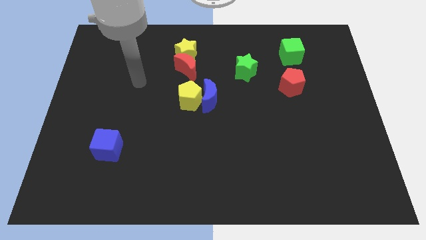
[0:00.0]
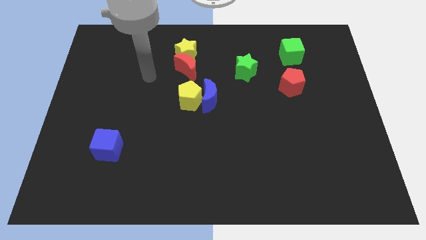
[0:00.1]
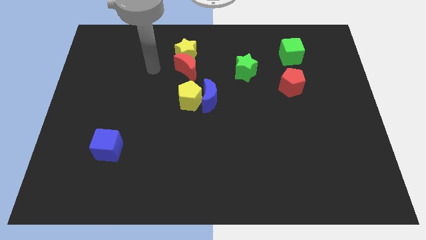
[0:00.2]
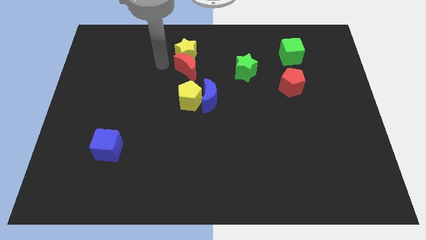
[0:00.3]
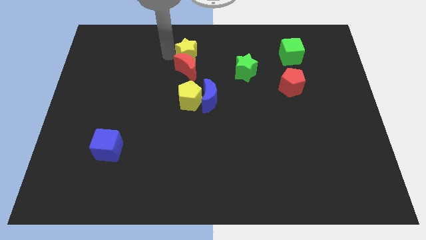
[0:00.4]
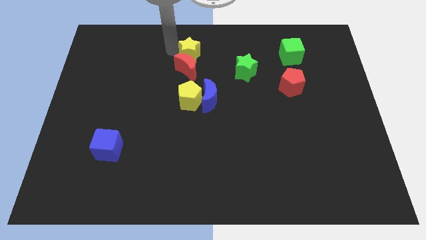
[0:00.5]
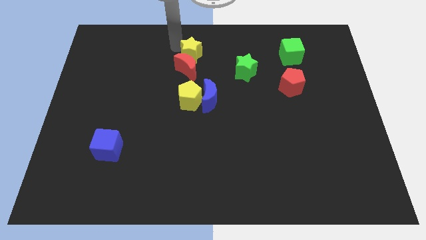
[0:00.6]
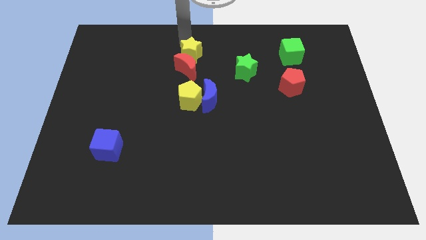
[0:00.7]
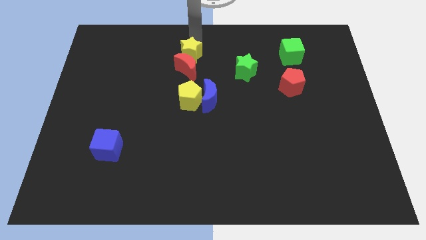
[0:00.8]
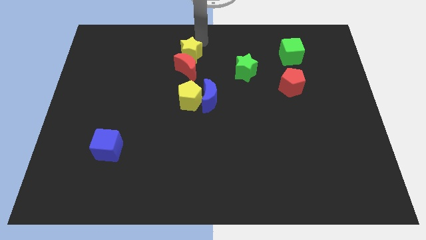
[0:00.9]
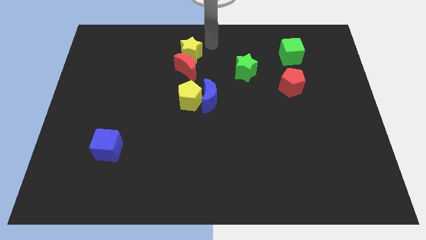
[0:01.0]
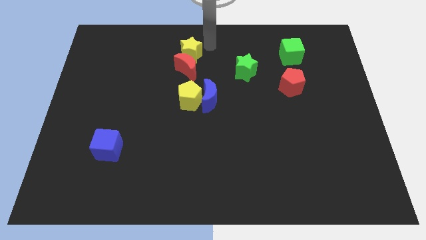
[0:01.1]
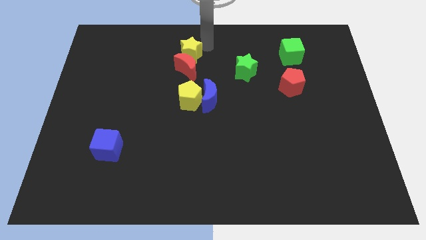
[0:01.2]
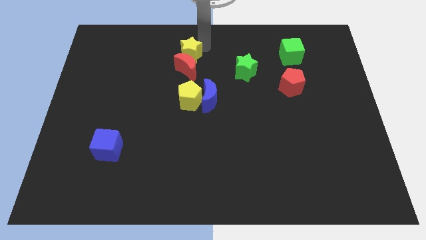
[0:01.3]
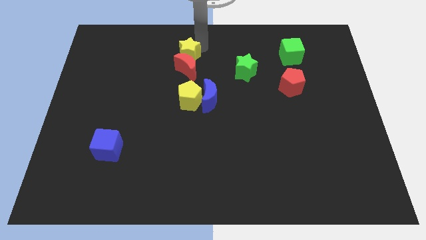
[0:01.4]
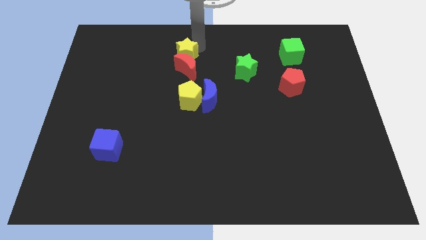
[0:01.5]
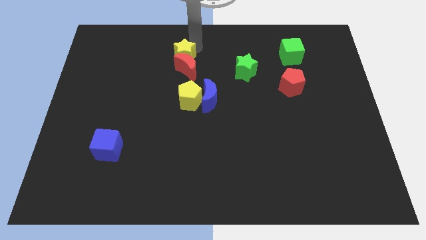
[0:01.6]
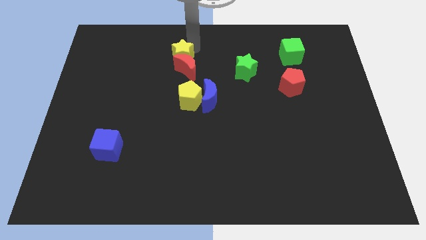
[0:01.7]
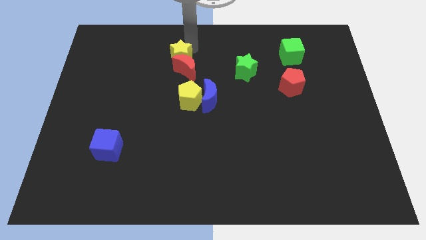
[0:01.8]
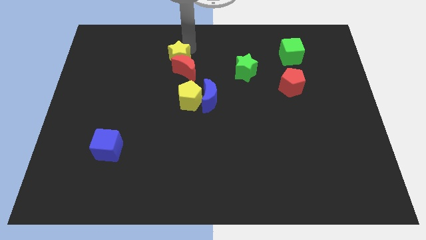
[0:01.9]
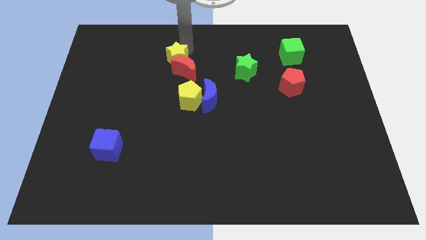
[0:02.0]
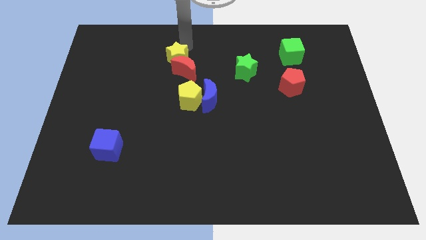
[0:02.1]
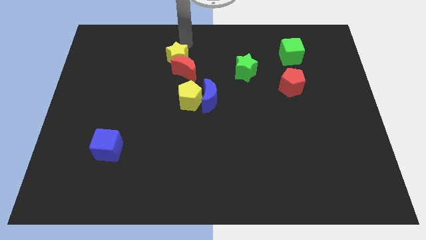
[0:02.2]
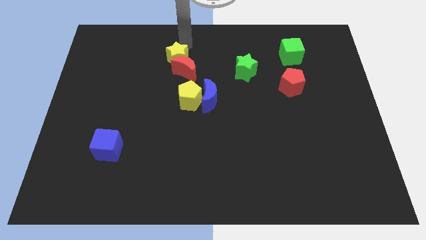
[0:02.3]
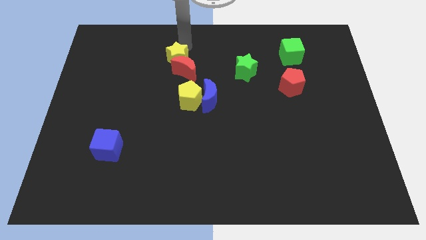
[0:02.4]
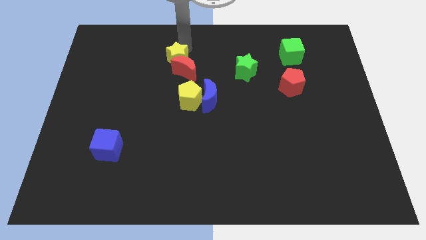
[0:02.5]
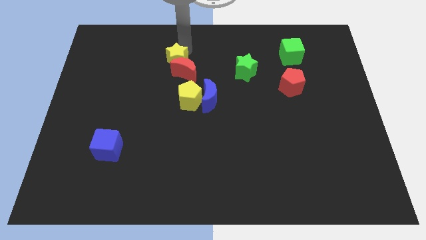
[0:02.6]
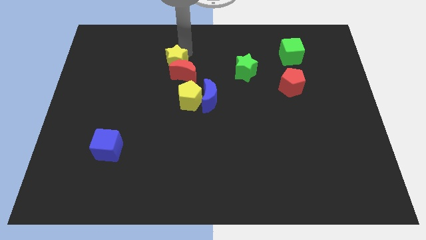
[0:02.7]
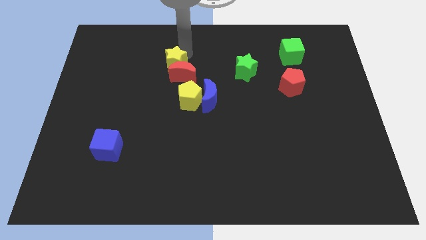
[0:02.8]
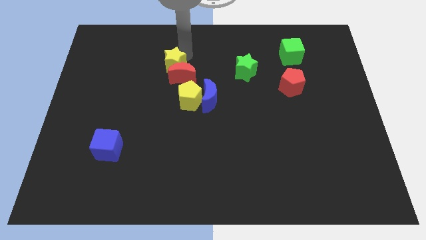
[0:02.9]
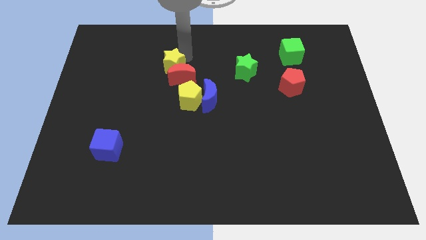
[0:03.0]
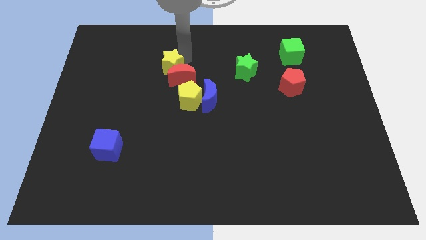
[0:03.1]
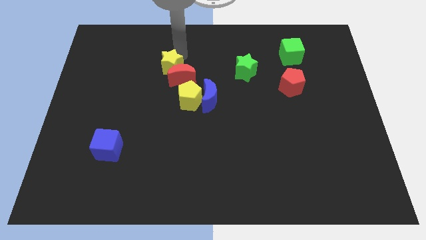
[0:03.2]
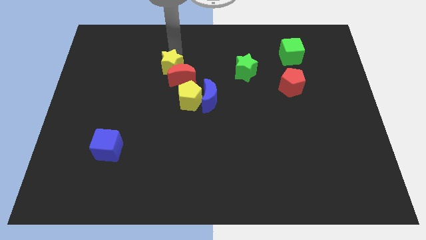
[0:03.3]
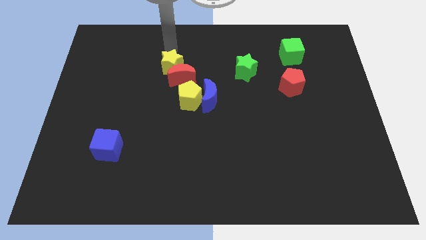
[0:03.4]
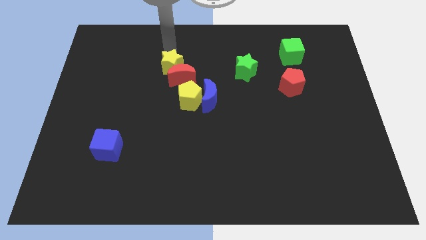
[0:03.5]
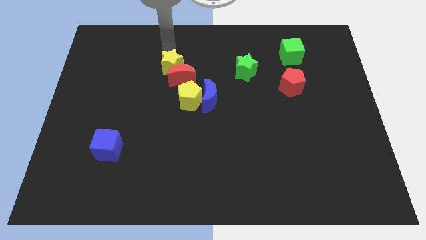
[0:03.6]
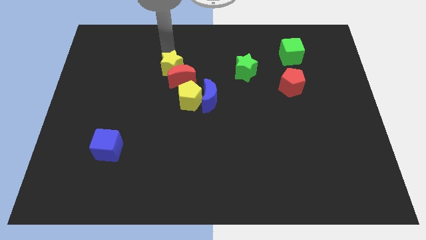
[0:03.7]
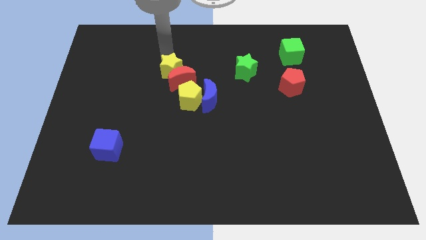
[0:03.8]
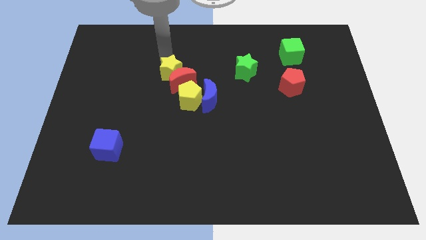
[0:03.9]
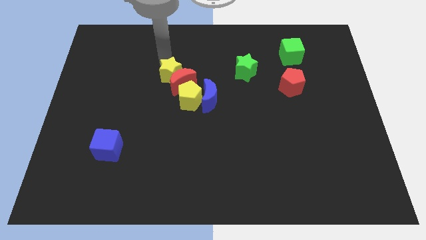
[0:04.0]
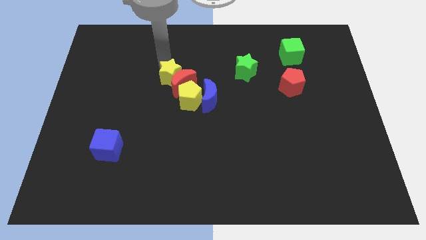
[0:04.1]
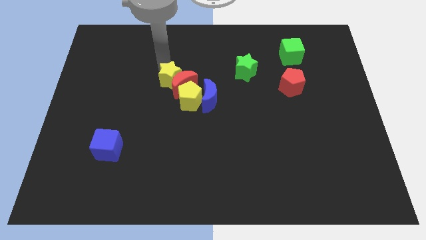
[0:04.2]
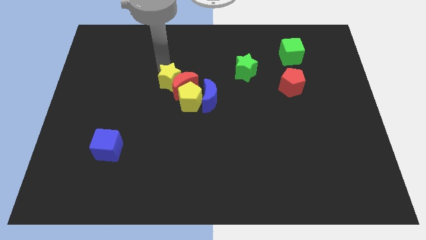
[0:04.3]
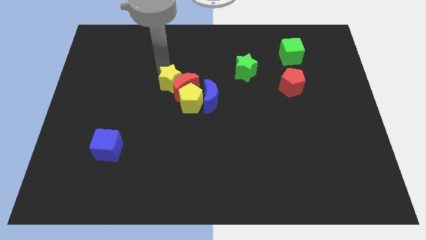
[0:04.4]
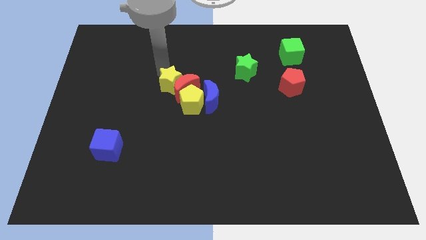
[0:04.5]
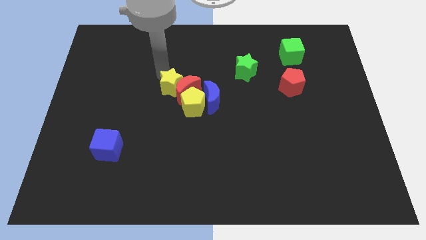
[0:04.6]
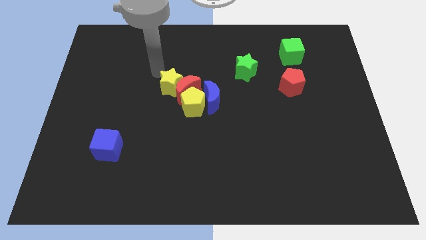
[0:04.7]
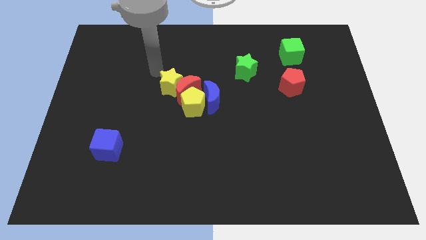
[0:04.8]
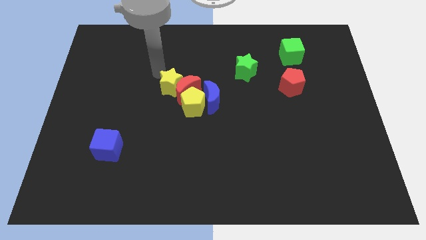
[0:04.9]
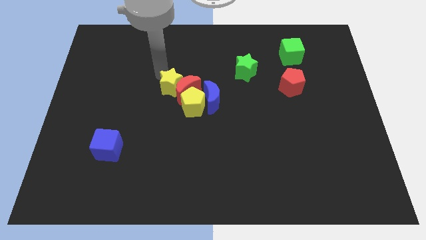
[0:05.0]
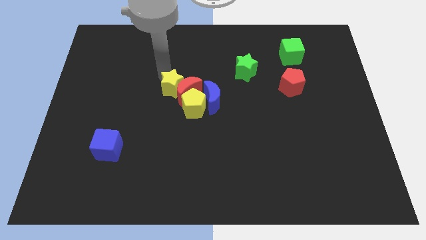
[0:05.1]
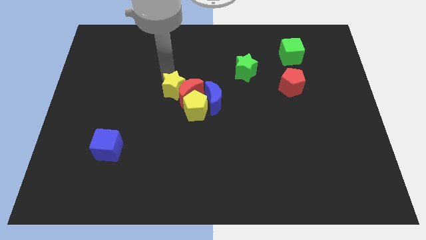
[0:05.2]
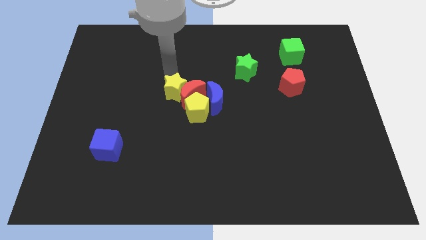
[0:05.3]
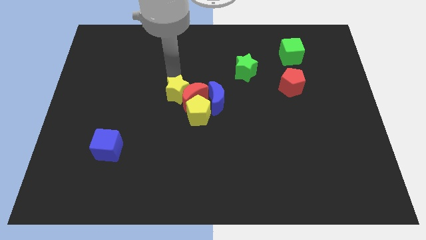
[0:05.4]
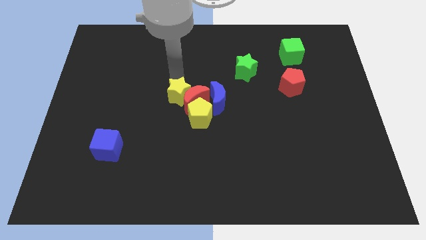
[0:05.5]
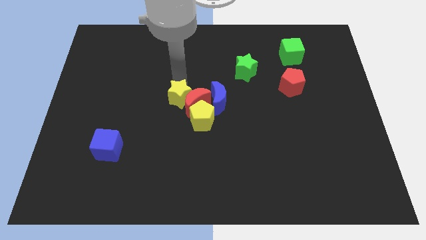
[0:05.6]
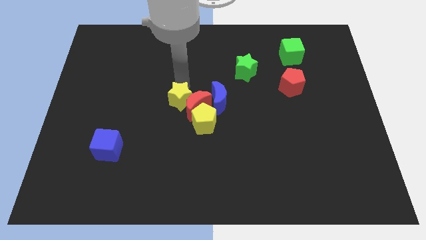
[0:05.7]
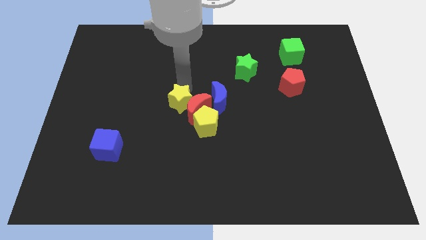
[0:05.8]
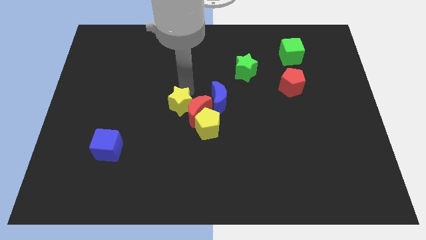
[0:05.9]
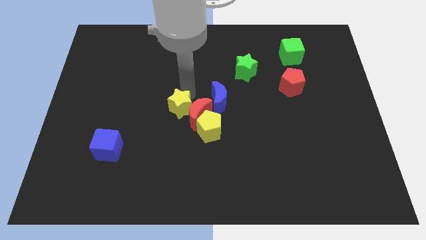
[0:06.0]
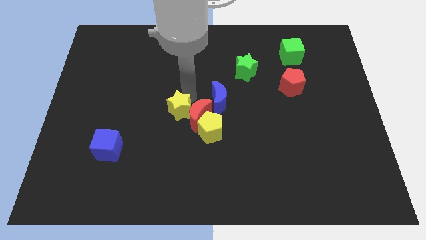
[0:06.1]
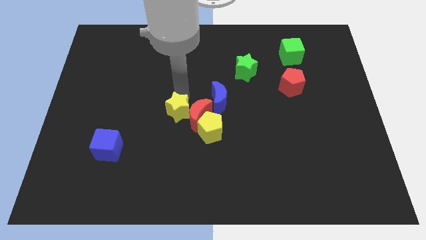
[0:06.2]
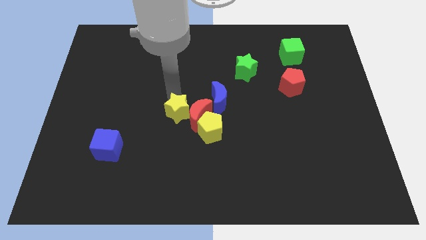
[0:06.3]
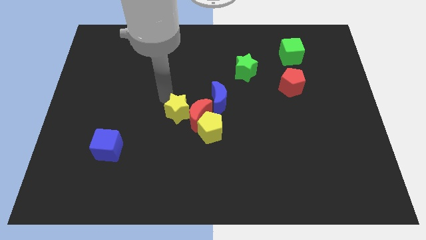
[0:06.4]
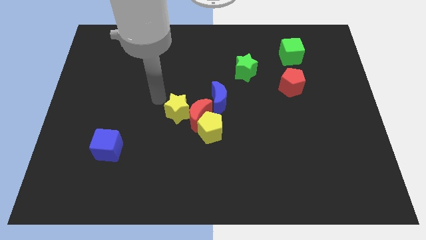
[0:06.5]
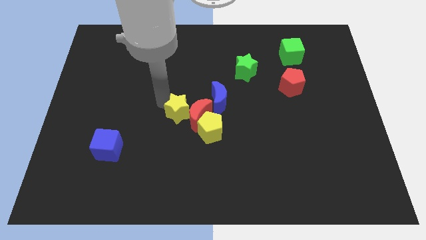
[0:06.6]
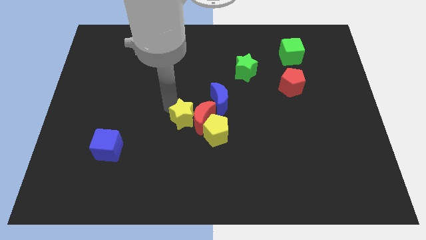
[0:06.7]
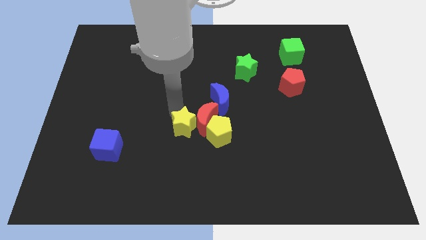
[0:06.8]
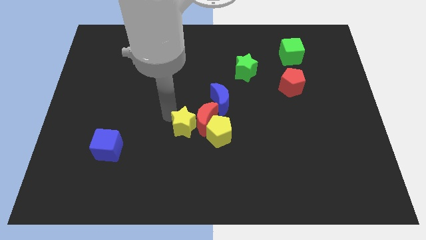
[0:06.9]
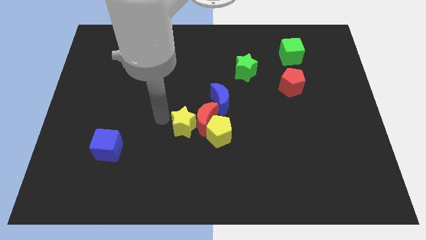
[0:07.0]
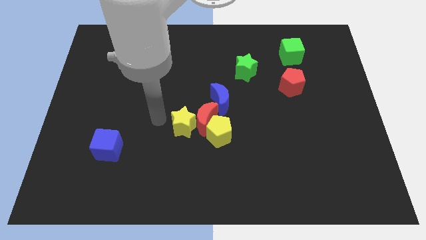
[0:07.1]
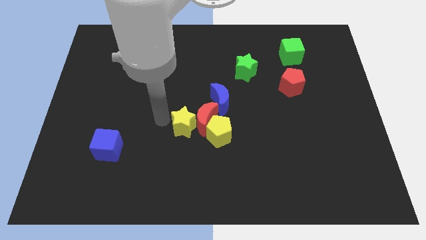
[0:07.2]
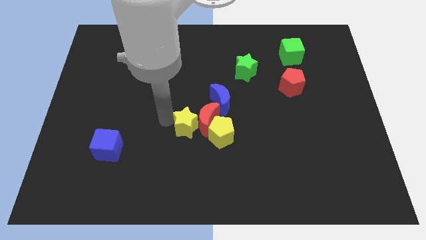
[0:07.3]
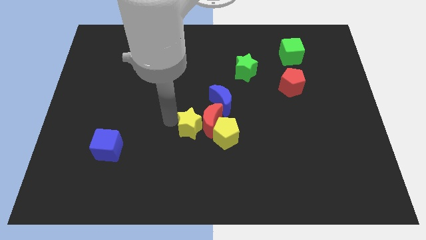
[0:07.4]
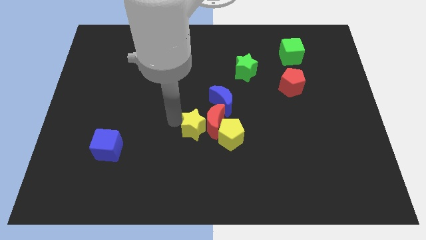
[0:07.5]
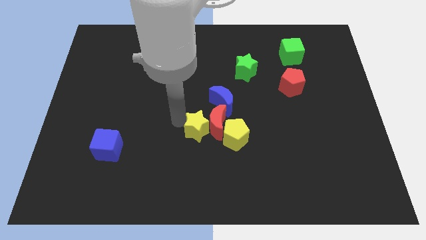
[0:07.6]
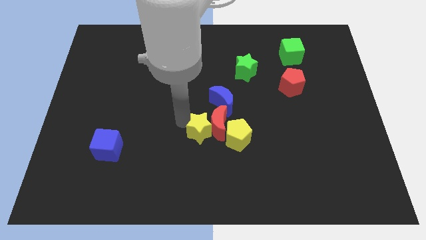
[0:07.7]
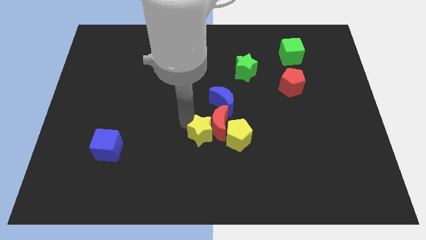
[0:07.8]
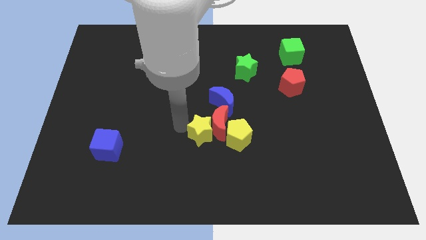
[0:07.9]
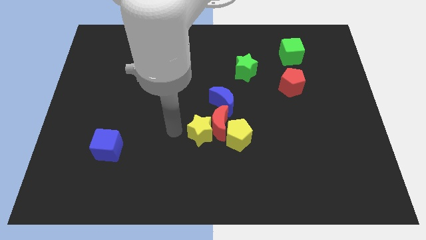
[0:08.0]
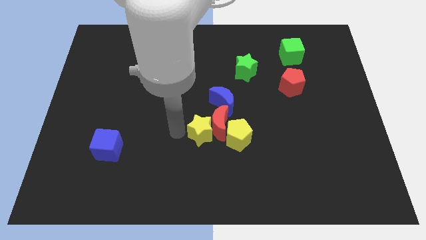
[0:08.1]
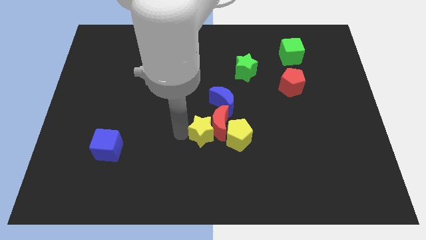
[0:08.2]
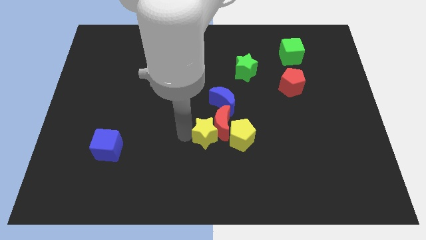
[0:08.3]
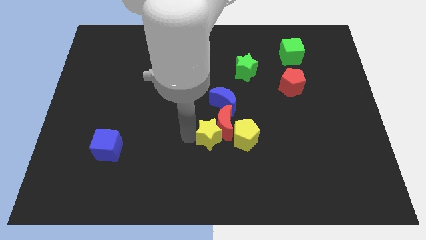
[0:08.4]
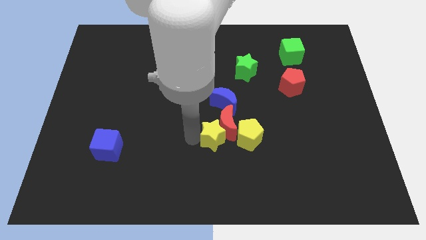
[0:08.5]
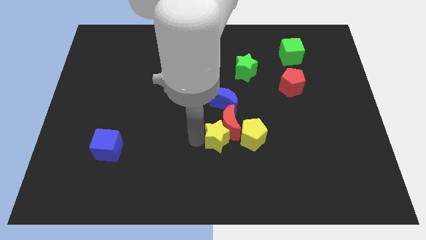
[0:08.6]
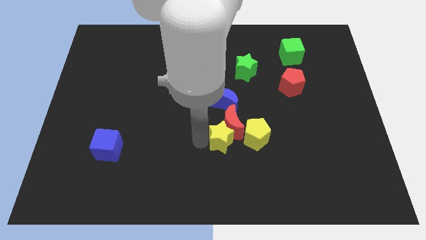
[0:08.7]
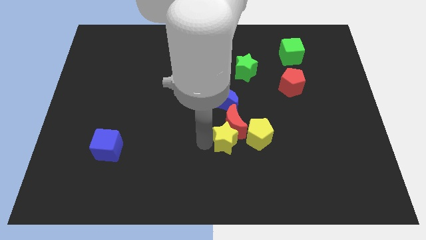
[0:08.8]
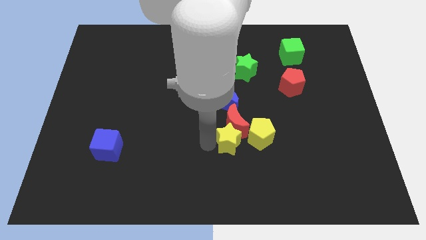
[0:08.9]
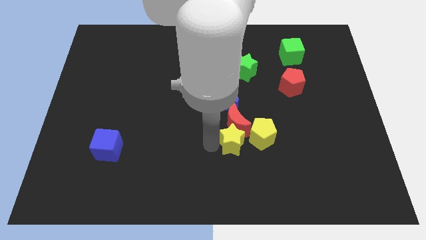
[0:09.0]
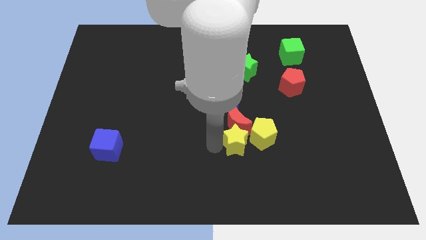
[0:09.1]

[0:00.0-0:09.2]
push the yellow star to the yellow pentagon
